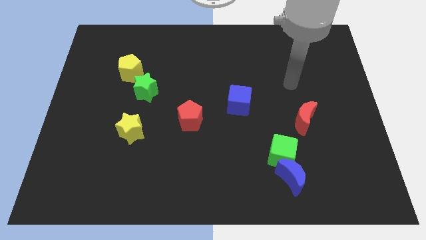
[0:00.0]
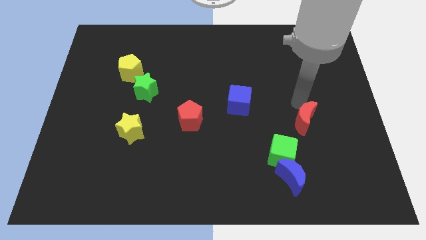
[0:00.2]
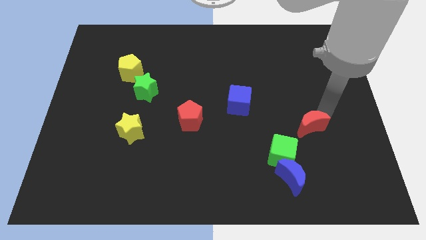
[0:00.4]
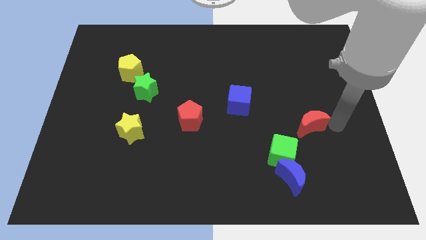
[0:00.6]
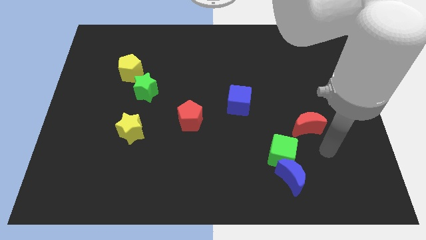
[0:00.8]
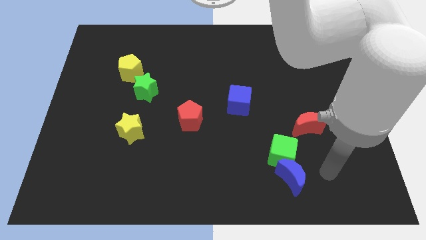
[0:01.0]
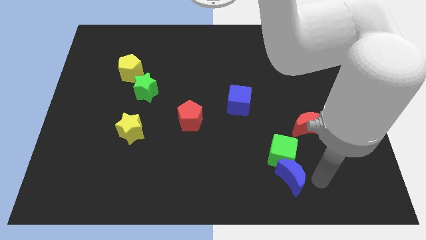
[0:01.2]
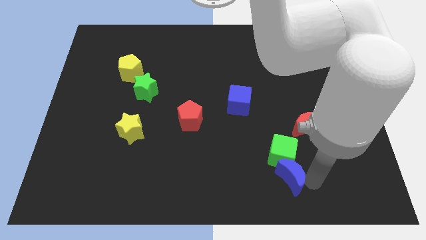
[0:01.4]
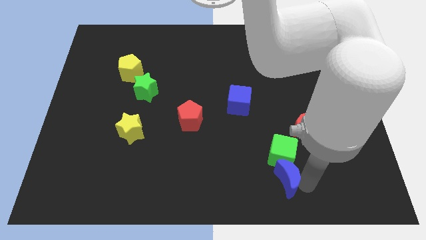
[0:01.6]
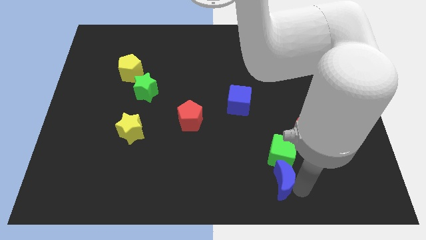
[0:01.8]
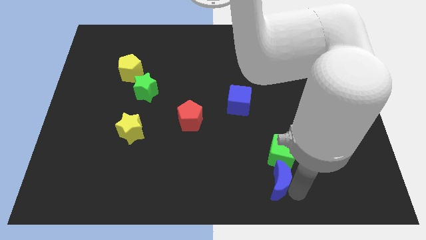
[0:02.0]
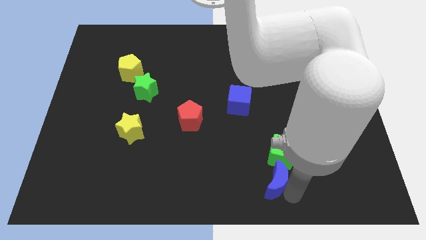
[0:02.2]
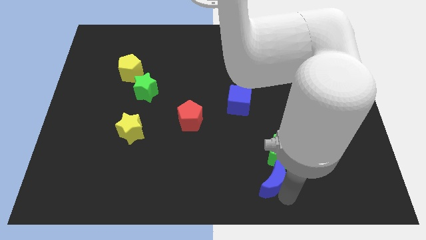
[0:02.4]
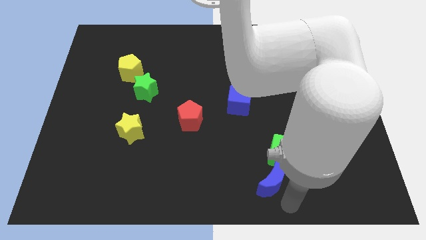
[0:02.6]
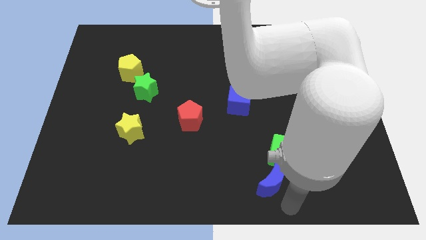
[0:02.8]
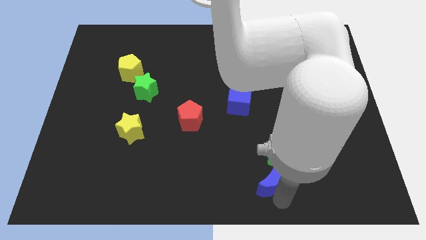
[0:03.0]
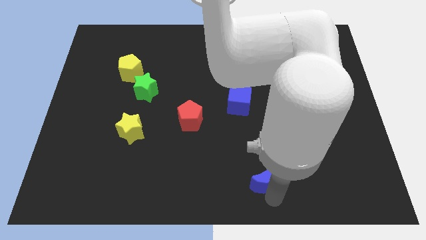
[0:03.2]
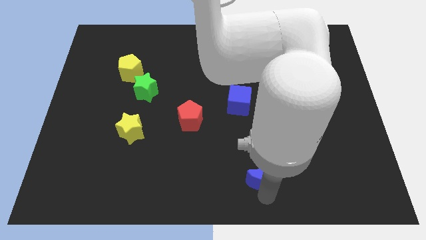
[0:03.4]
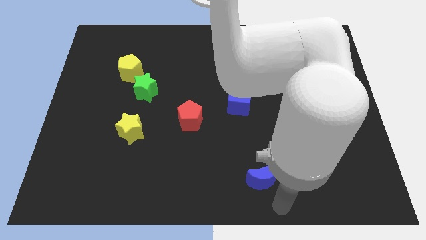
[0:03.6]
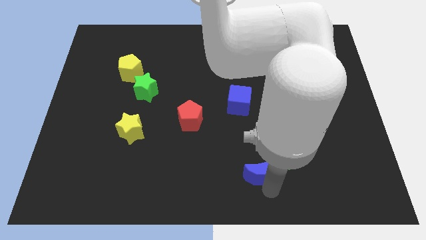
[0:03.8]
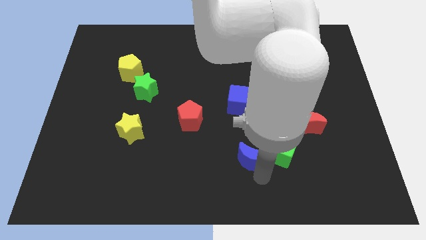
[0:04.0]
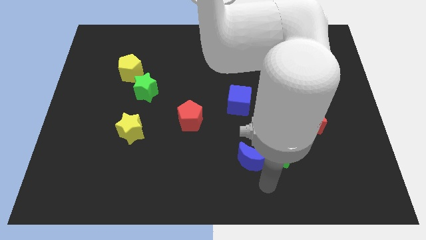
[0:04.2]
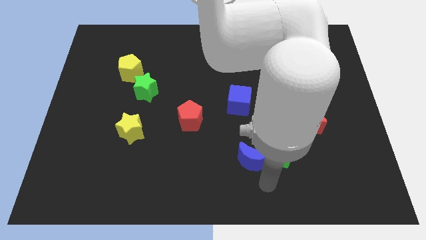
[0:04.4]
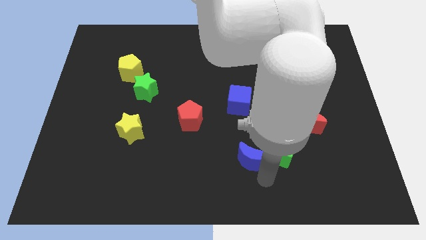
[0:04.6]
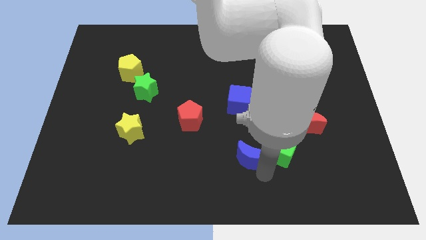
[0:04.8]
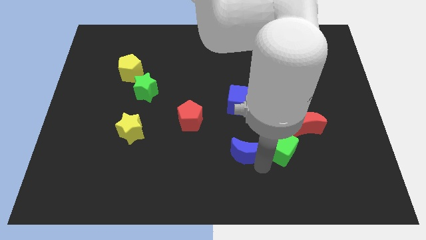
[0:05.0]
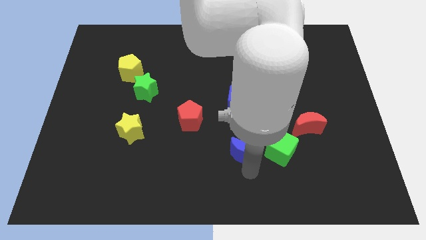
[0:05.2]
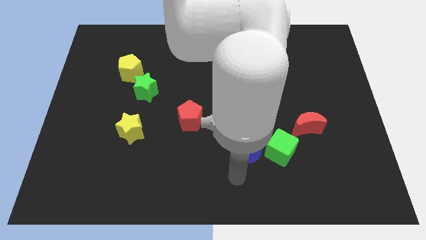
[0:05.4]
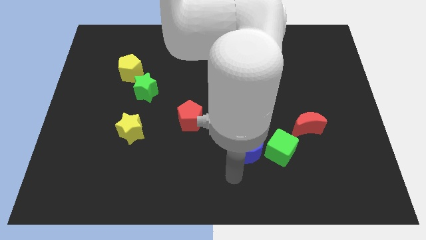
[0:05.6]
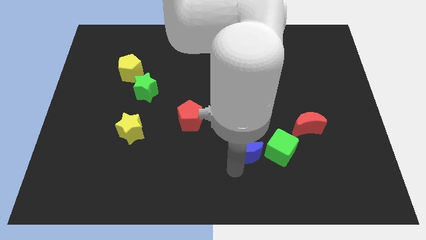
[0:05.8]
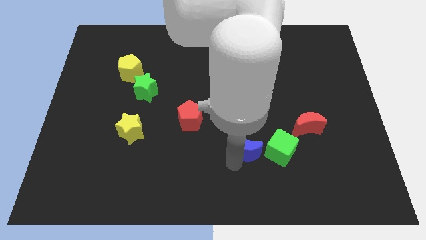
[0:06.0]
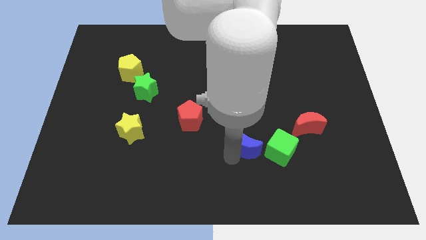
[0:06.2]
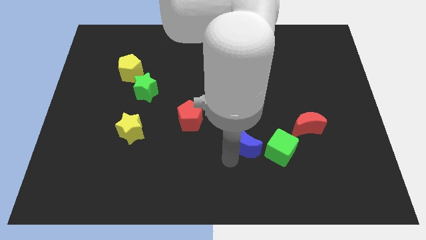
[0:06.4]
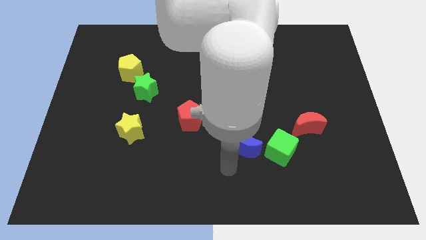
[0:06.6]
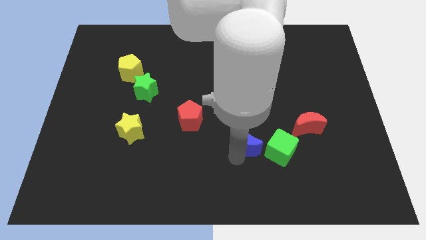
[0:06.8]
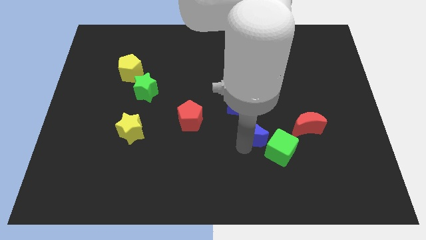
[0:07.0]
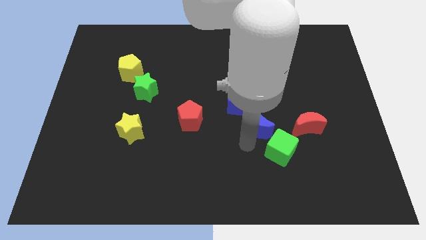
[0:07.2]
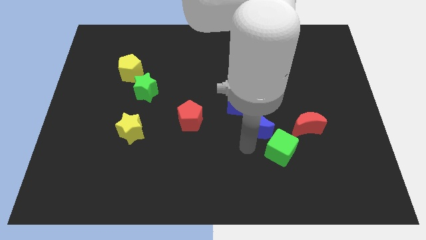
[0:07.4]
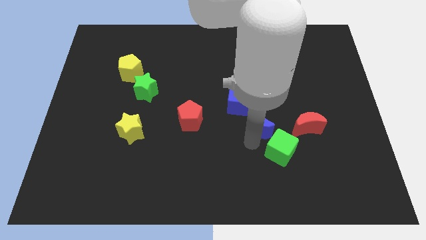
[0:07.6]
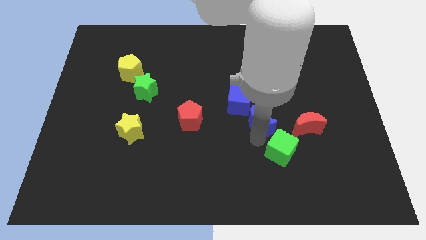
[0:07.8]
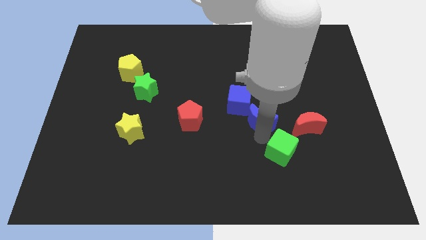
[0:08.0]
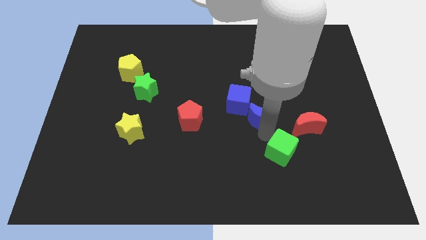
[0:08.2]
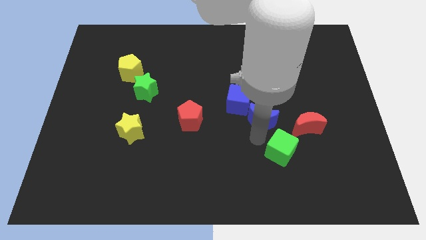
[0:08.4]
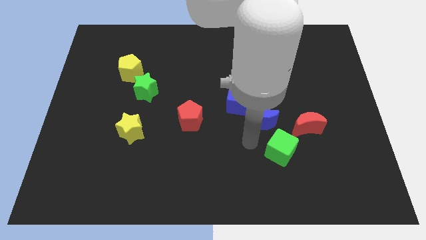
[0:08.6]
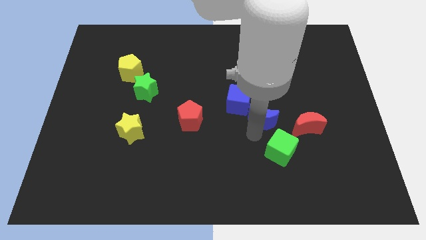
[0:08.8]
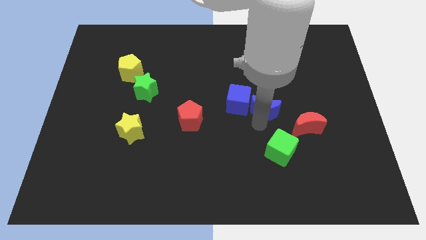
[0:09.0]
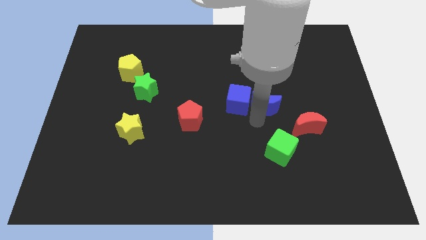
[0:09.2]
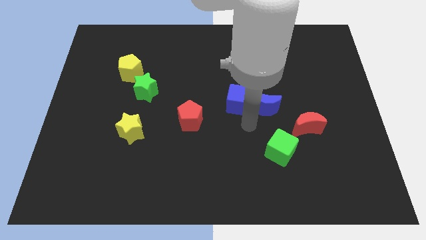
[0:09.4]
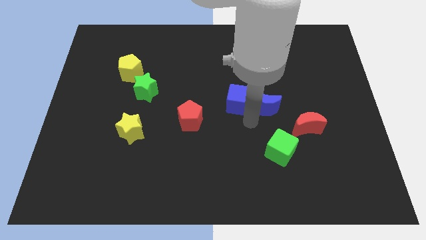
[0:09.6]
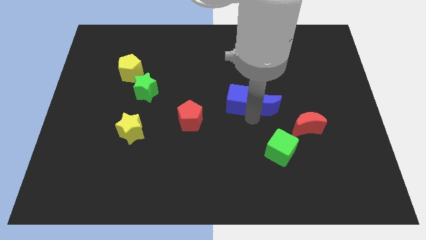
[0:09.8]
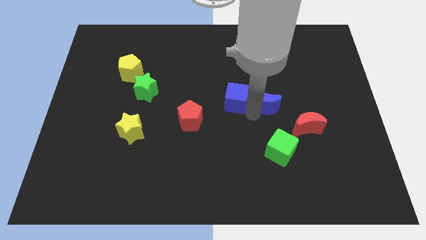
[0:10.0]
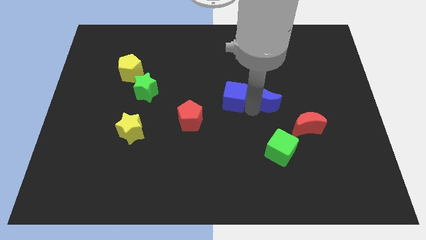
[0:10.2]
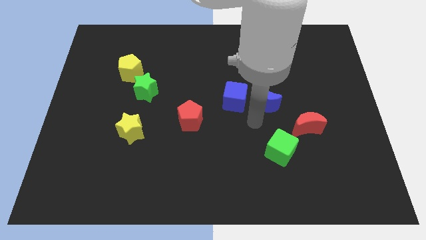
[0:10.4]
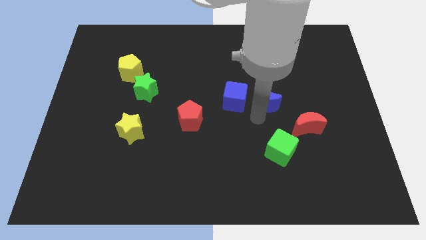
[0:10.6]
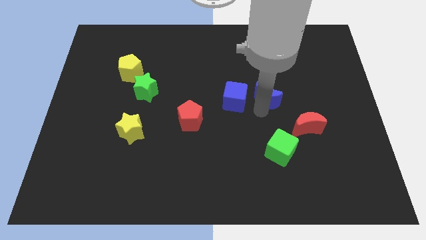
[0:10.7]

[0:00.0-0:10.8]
slide the blue moon upwards

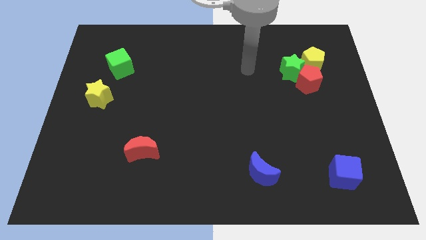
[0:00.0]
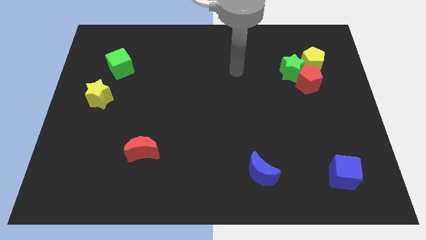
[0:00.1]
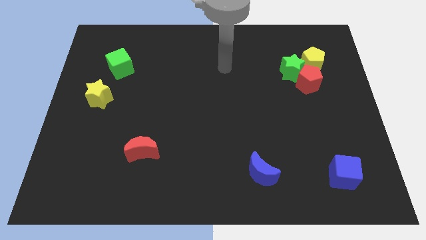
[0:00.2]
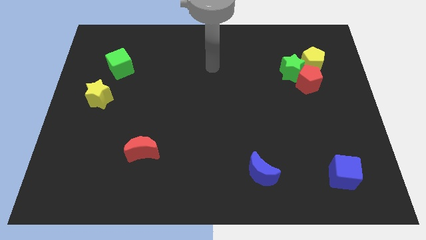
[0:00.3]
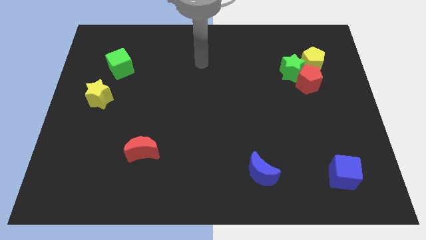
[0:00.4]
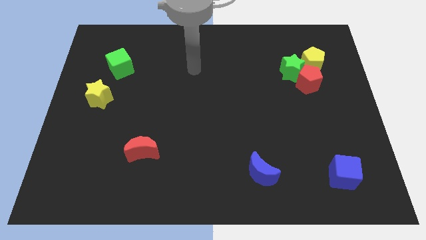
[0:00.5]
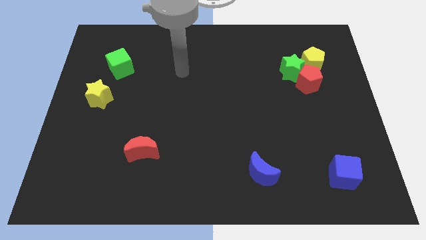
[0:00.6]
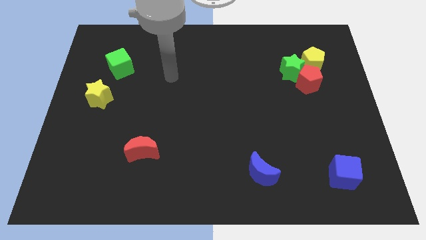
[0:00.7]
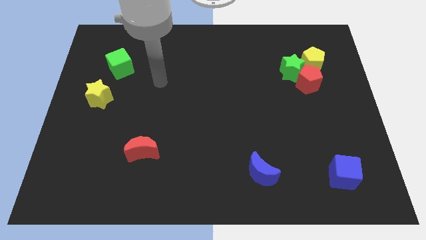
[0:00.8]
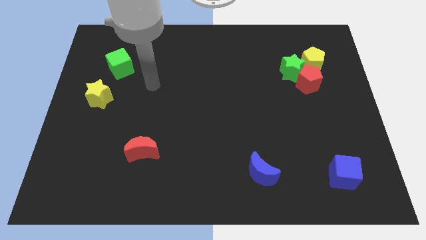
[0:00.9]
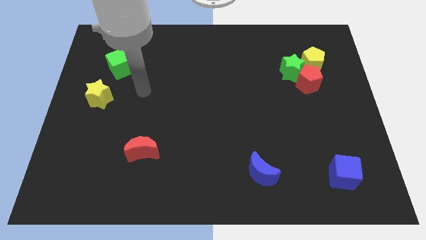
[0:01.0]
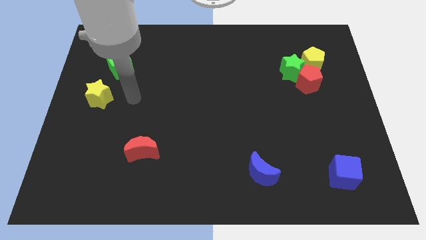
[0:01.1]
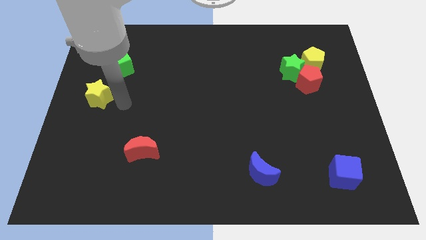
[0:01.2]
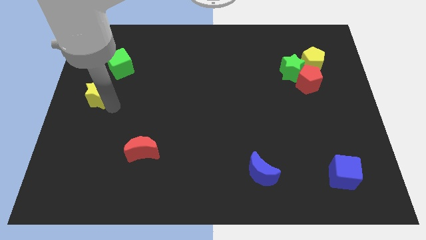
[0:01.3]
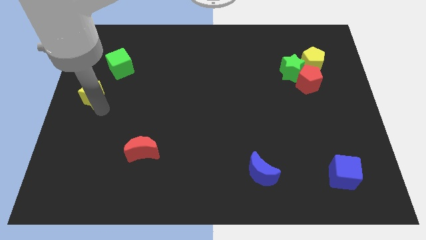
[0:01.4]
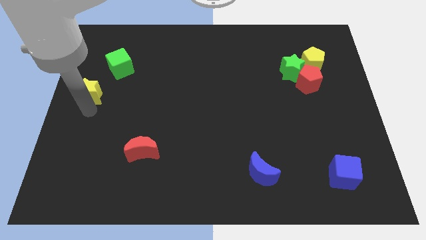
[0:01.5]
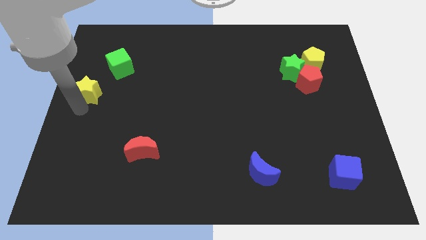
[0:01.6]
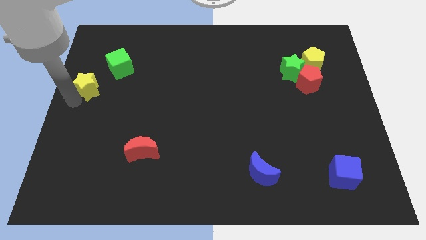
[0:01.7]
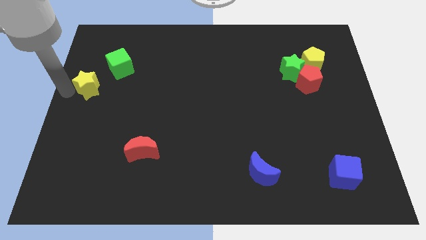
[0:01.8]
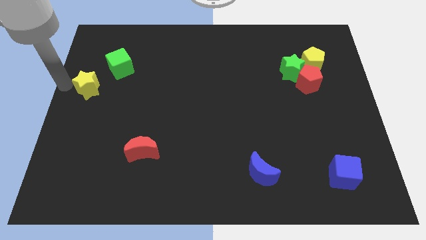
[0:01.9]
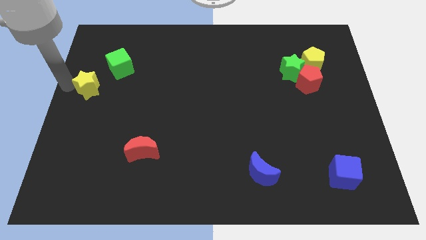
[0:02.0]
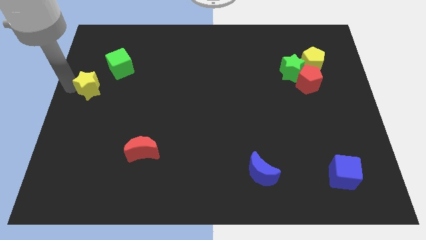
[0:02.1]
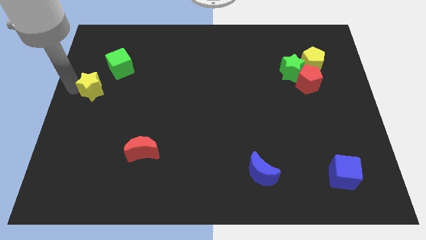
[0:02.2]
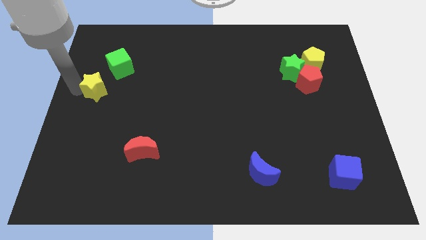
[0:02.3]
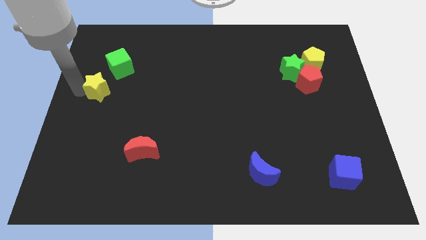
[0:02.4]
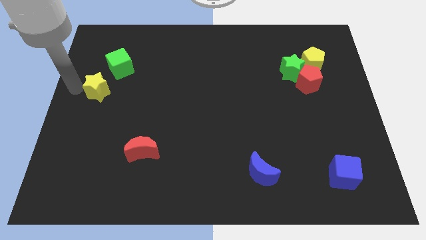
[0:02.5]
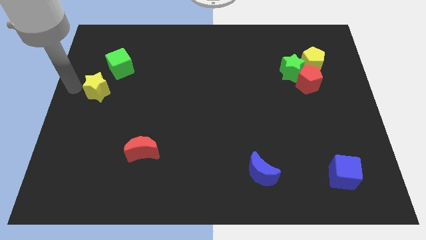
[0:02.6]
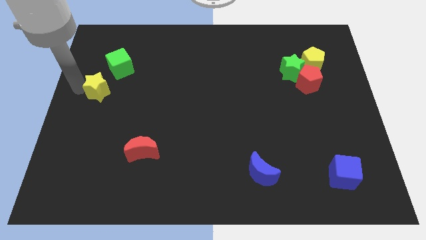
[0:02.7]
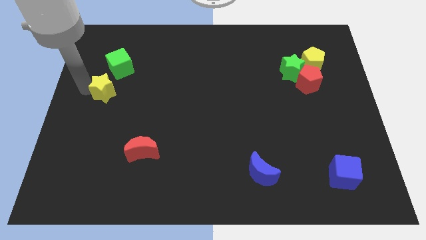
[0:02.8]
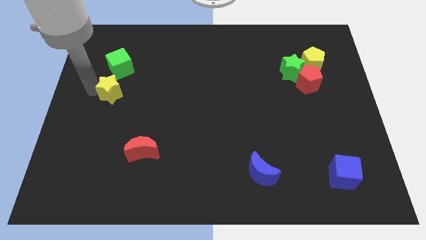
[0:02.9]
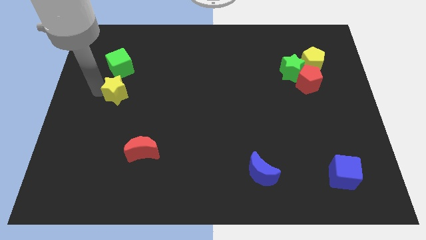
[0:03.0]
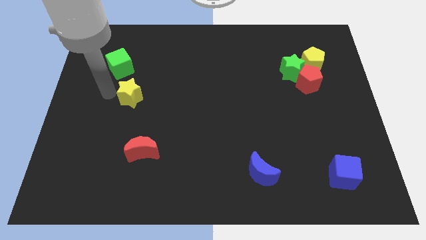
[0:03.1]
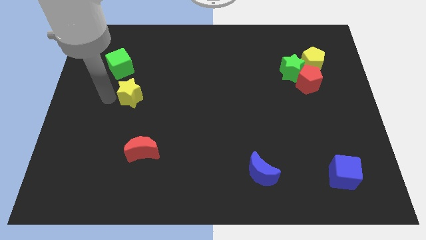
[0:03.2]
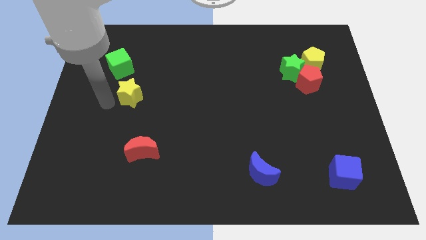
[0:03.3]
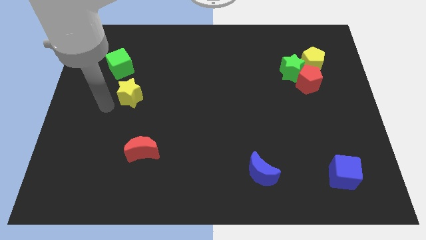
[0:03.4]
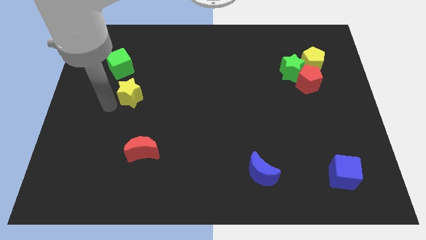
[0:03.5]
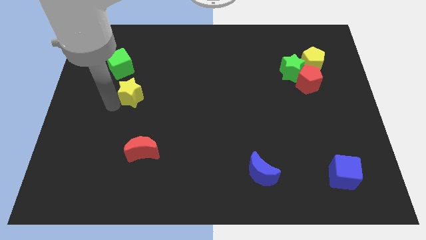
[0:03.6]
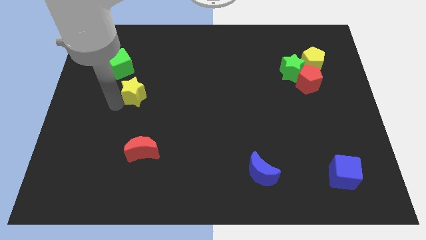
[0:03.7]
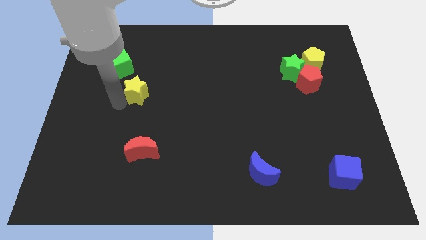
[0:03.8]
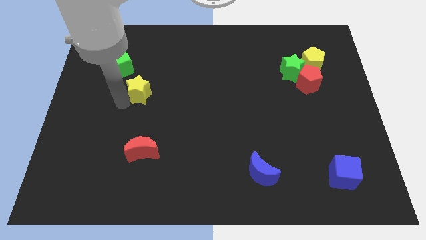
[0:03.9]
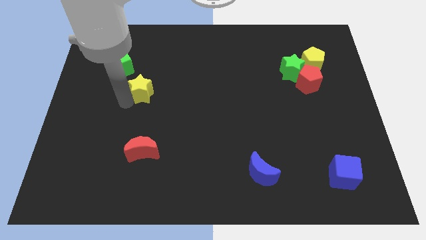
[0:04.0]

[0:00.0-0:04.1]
slide the yellow star diagonally upwards and to the right slightly
